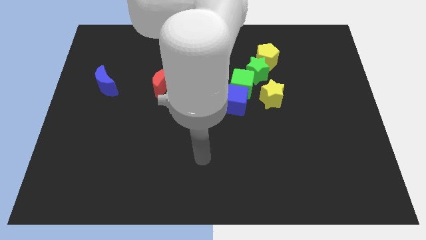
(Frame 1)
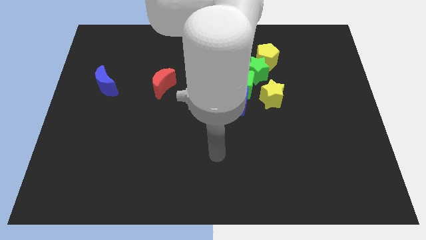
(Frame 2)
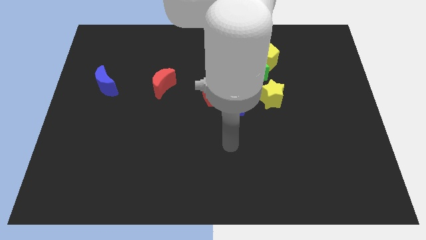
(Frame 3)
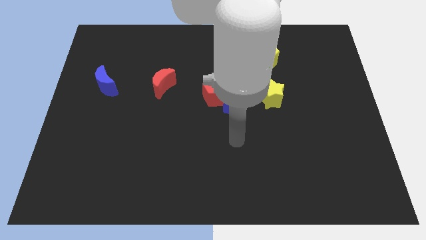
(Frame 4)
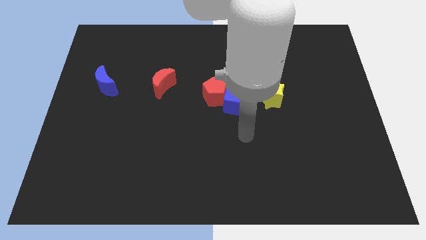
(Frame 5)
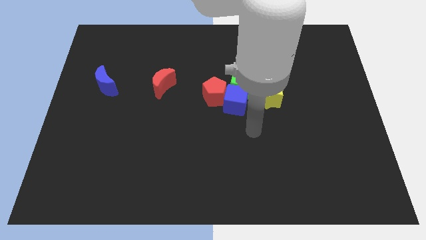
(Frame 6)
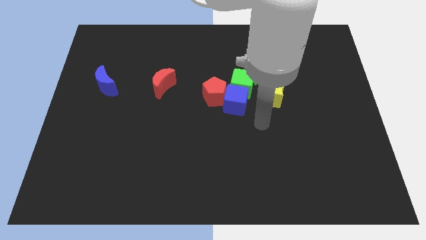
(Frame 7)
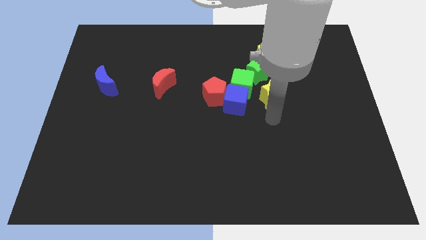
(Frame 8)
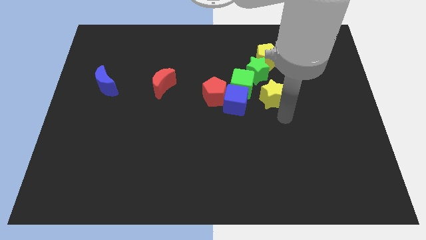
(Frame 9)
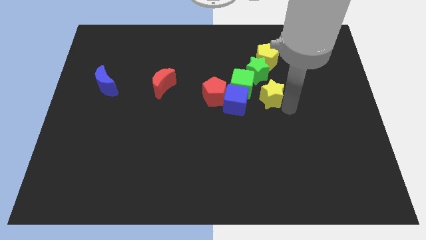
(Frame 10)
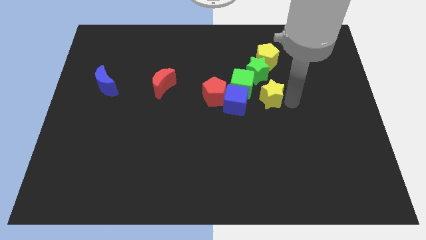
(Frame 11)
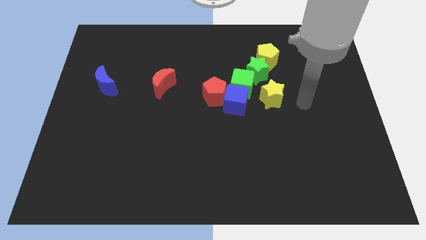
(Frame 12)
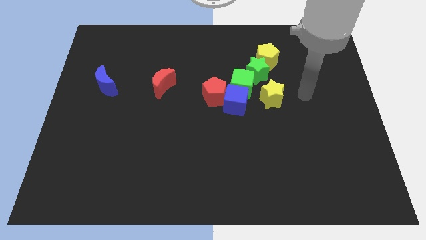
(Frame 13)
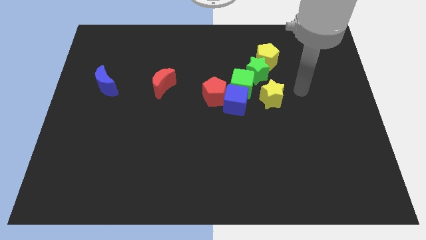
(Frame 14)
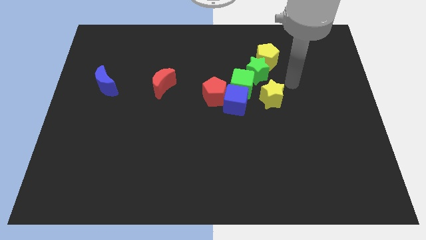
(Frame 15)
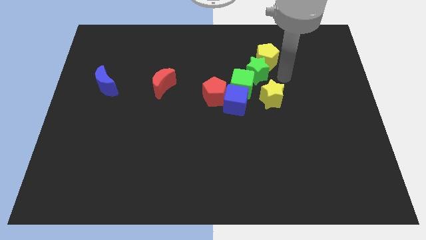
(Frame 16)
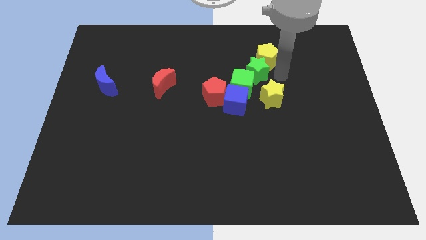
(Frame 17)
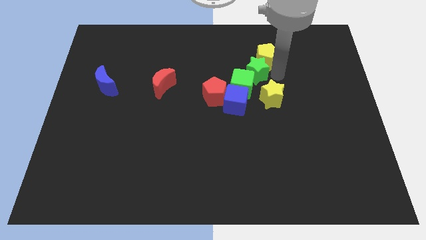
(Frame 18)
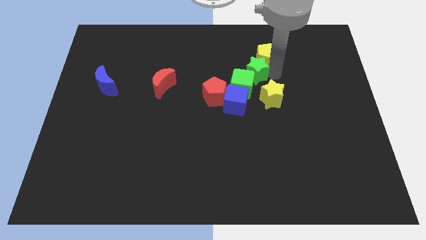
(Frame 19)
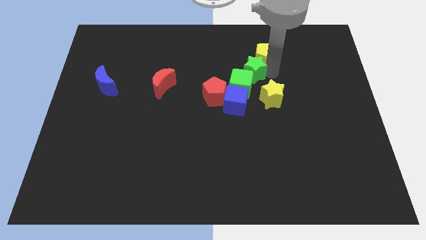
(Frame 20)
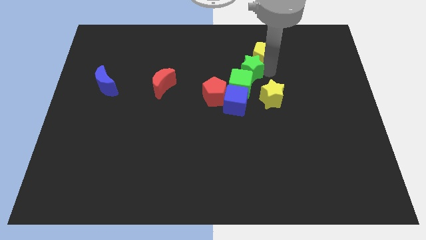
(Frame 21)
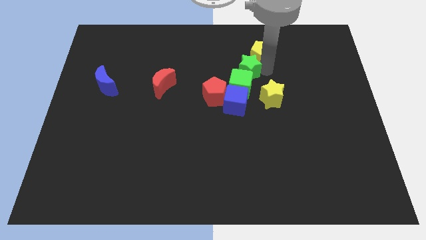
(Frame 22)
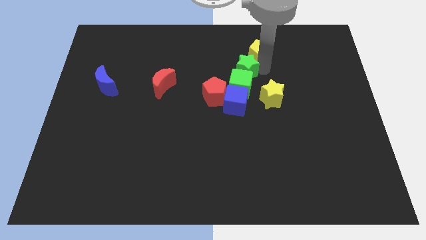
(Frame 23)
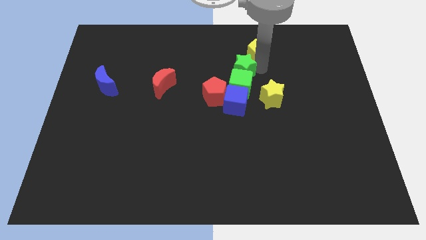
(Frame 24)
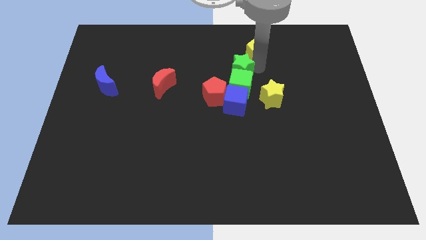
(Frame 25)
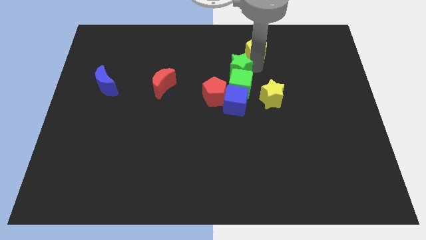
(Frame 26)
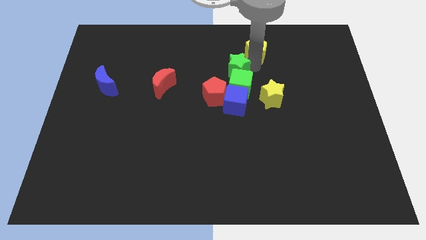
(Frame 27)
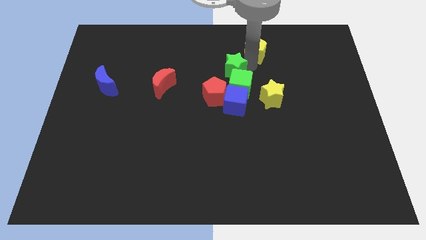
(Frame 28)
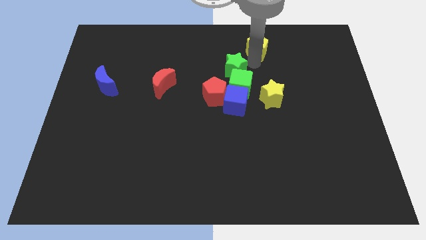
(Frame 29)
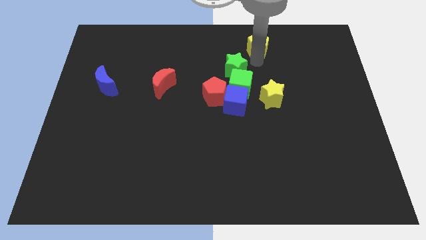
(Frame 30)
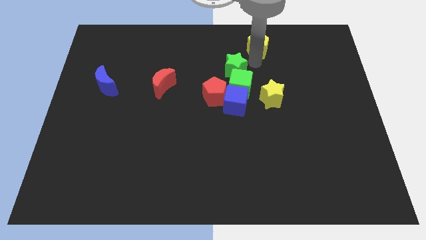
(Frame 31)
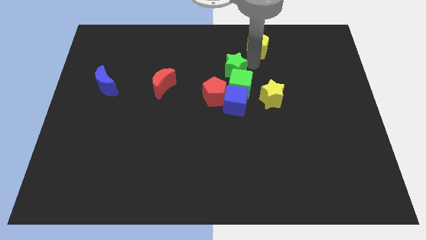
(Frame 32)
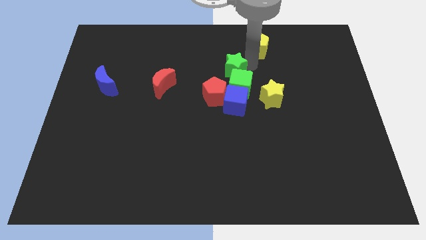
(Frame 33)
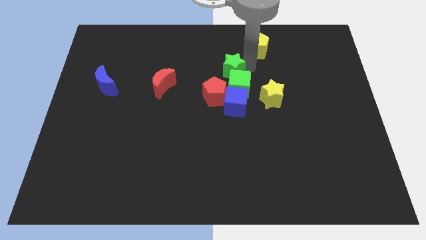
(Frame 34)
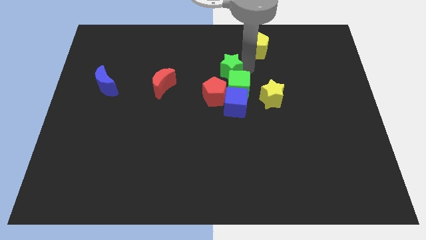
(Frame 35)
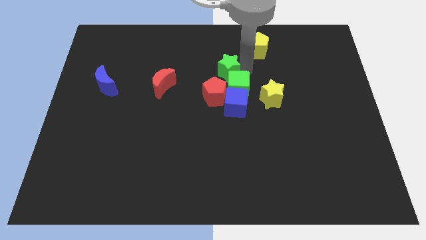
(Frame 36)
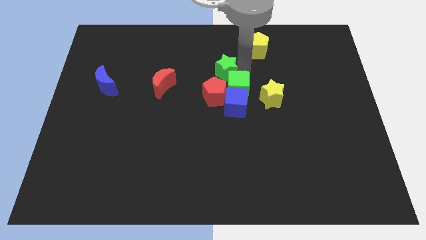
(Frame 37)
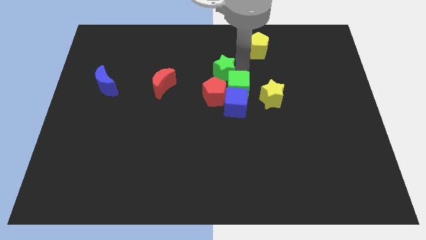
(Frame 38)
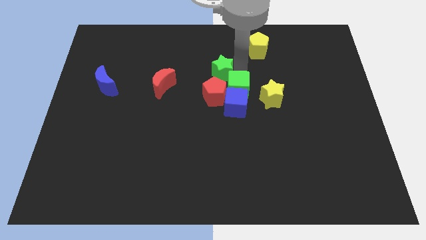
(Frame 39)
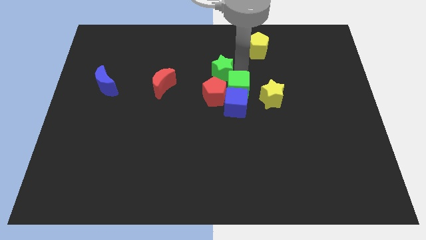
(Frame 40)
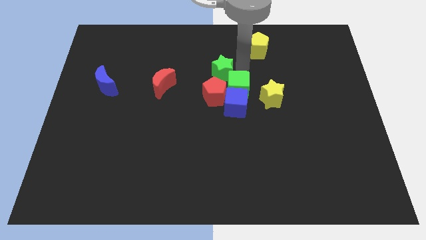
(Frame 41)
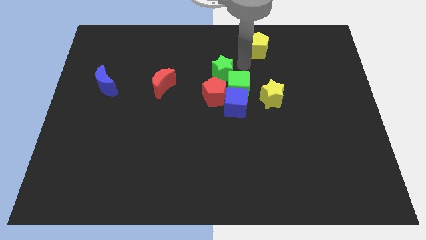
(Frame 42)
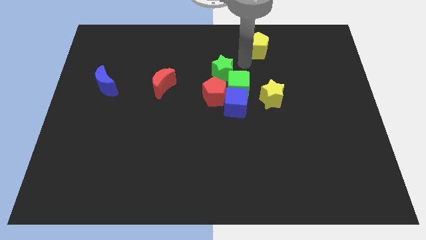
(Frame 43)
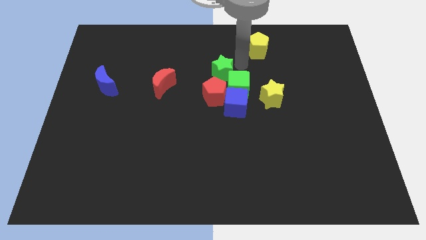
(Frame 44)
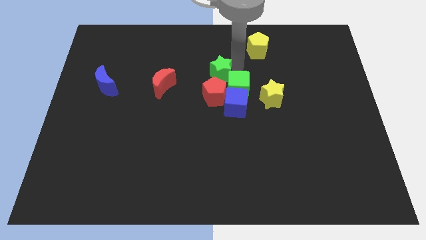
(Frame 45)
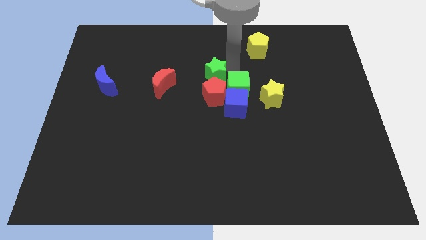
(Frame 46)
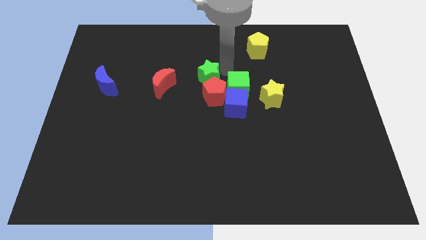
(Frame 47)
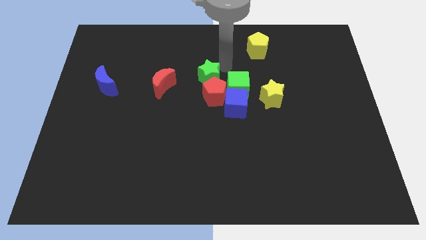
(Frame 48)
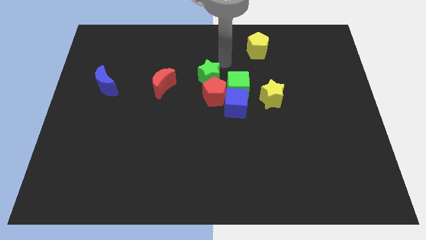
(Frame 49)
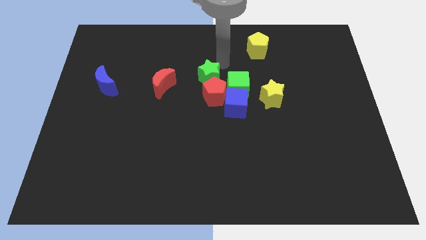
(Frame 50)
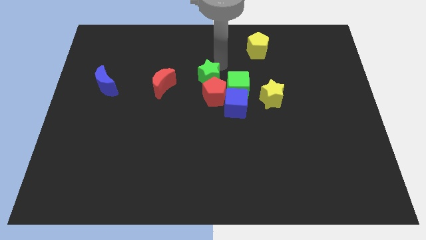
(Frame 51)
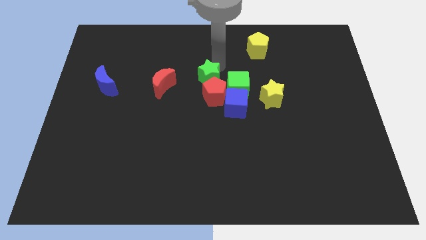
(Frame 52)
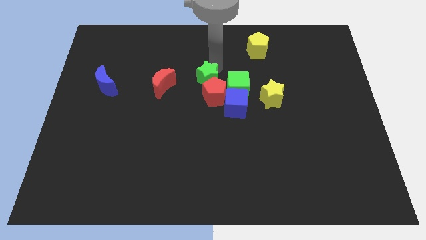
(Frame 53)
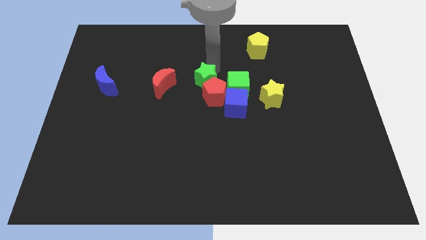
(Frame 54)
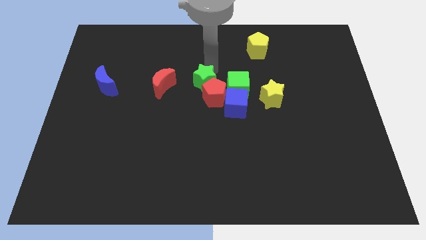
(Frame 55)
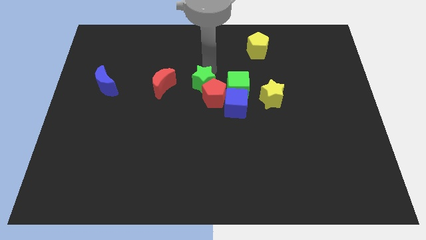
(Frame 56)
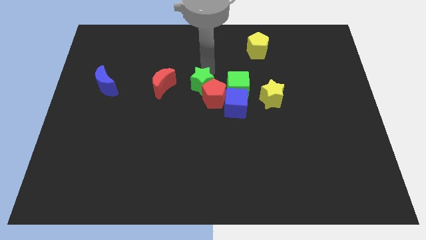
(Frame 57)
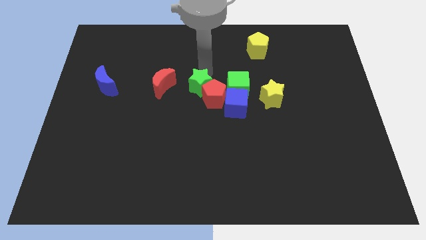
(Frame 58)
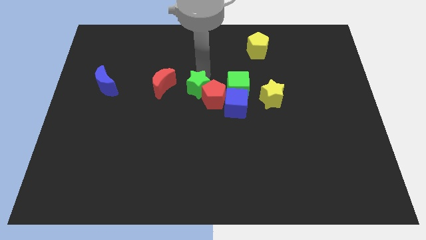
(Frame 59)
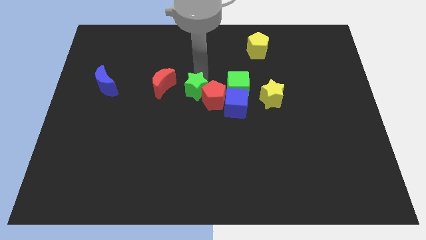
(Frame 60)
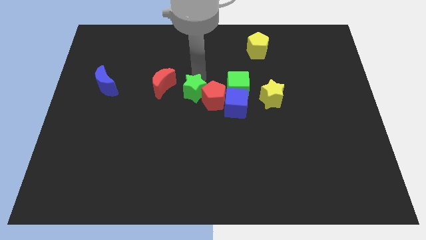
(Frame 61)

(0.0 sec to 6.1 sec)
push the green star to the left side of the blue cube

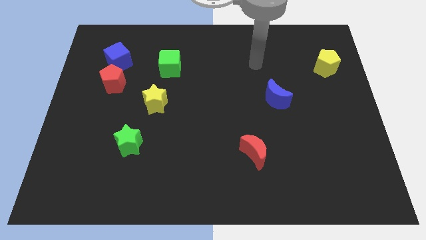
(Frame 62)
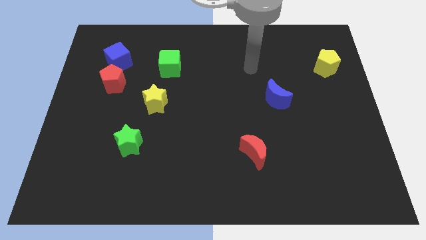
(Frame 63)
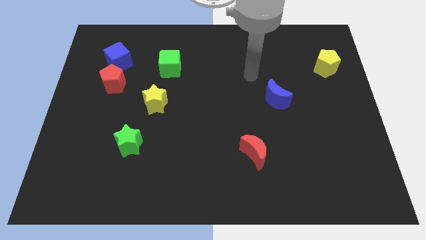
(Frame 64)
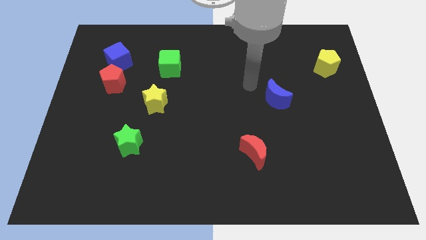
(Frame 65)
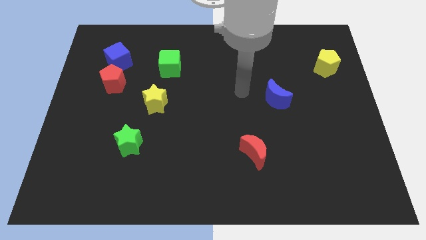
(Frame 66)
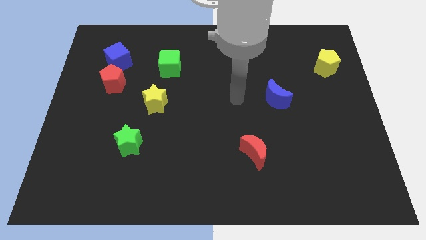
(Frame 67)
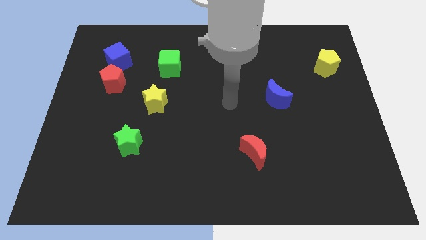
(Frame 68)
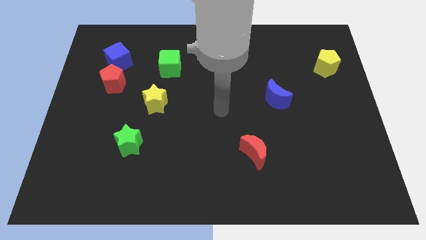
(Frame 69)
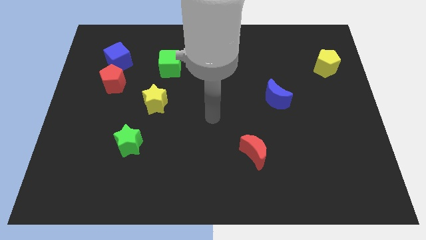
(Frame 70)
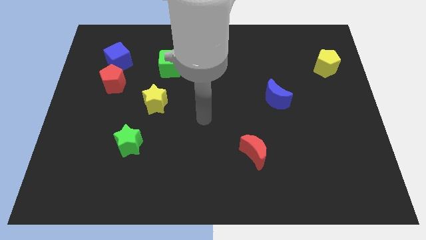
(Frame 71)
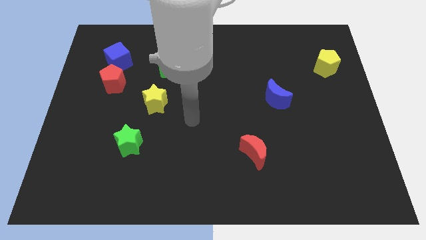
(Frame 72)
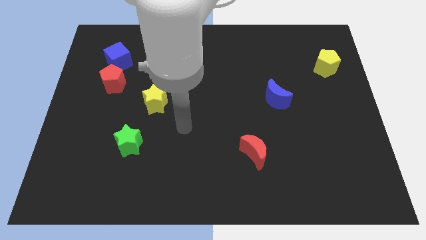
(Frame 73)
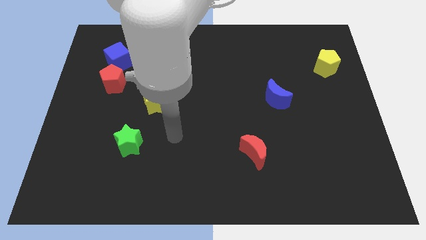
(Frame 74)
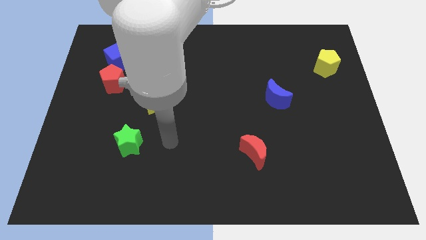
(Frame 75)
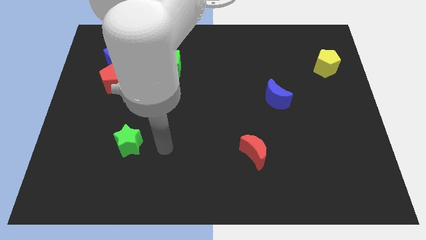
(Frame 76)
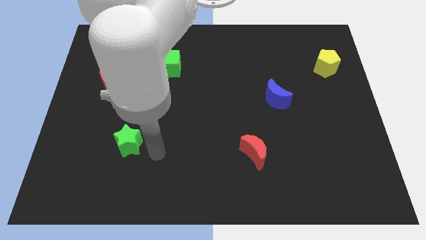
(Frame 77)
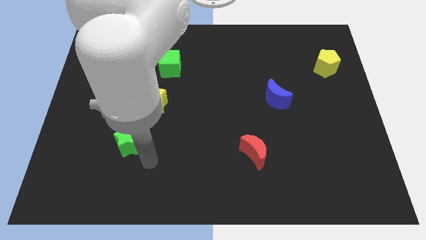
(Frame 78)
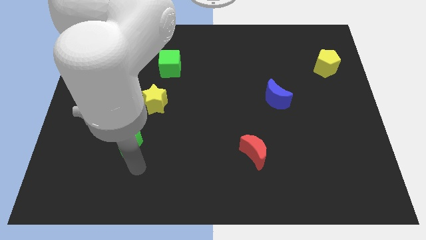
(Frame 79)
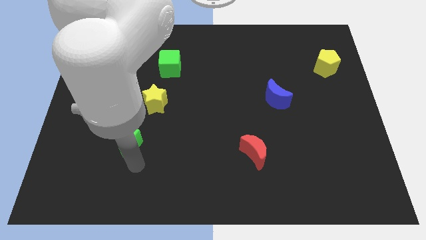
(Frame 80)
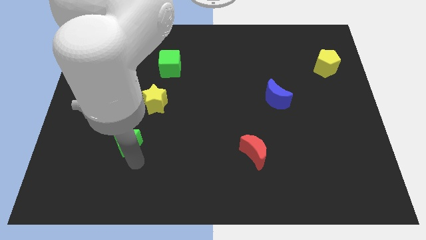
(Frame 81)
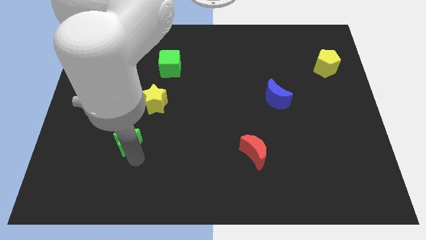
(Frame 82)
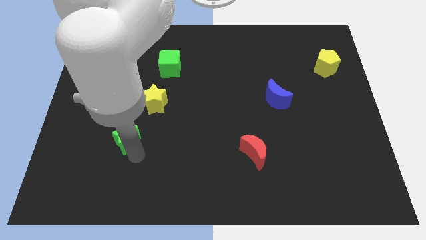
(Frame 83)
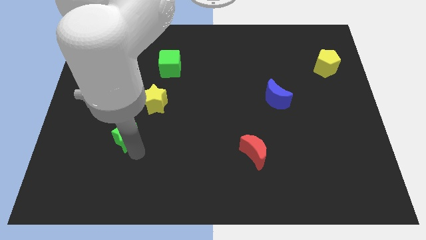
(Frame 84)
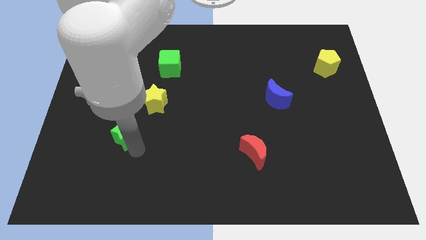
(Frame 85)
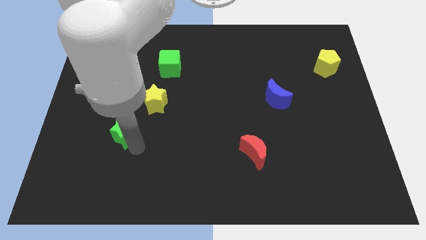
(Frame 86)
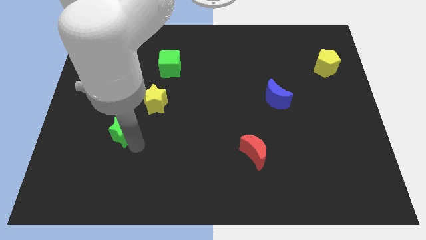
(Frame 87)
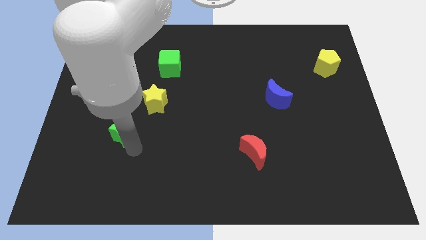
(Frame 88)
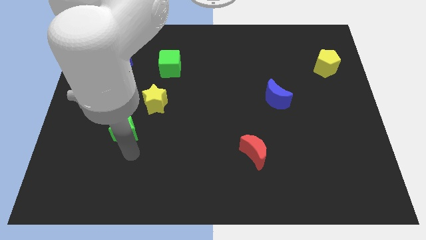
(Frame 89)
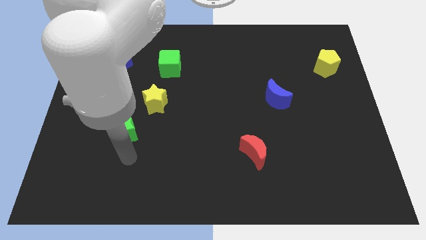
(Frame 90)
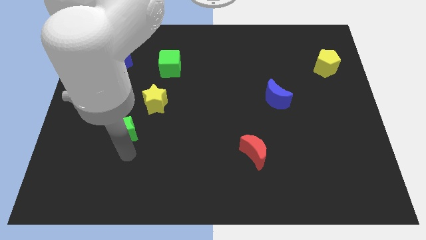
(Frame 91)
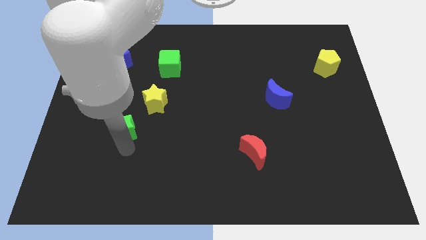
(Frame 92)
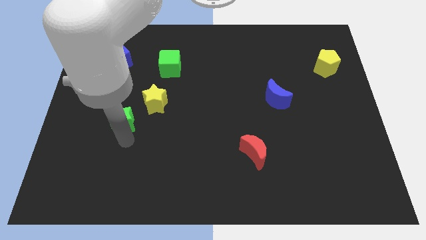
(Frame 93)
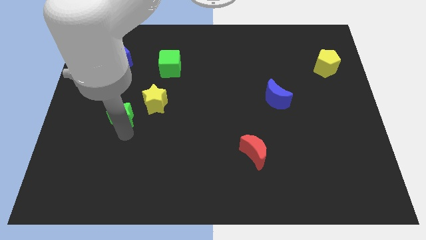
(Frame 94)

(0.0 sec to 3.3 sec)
put the green star to the left of the yellow star
